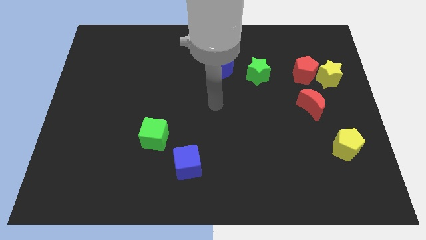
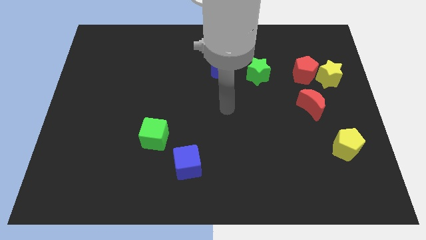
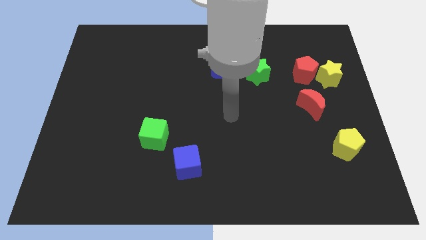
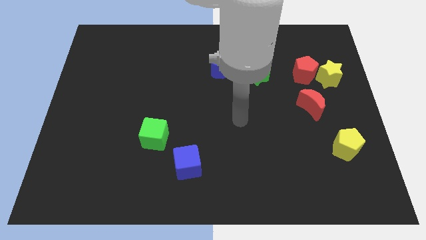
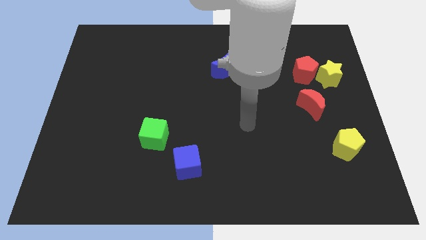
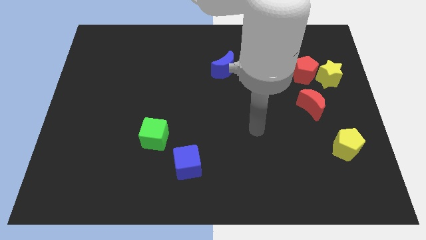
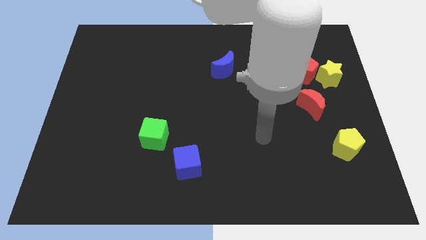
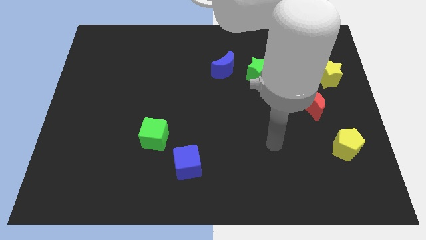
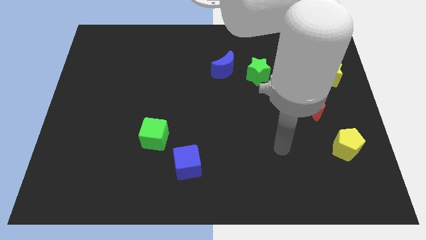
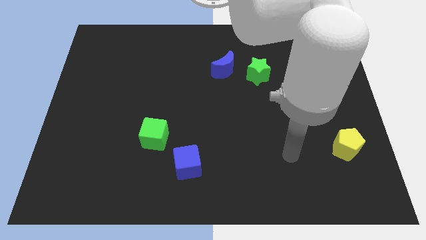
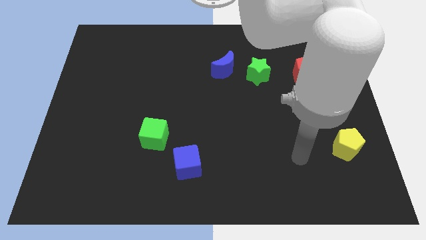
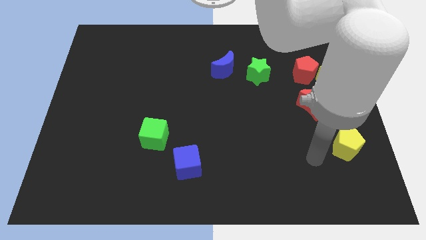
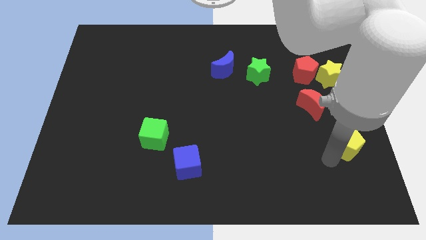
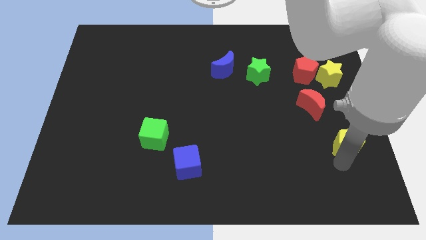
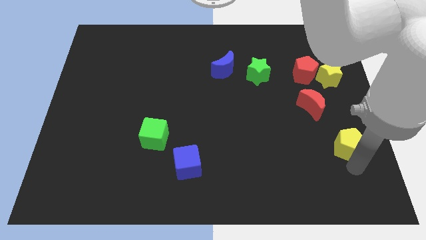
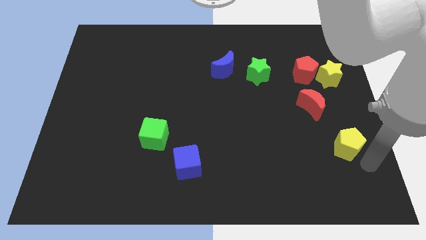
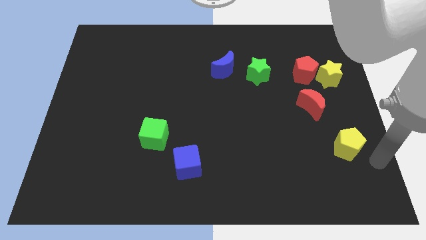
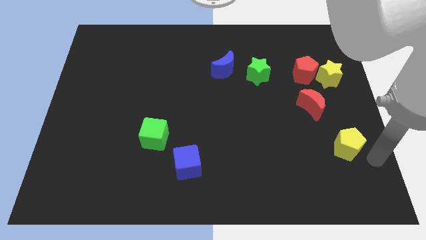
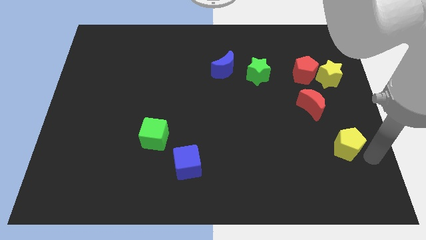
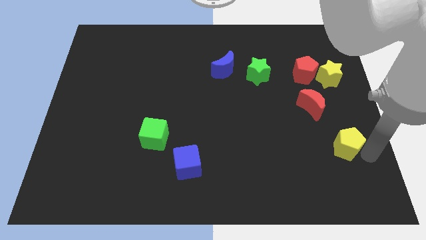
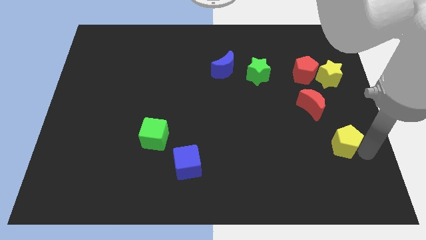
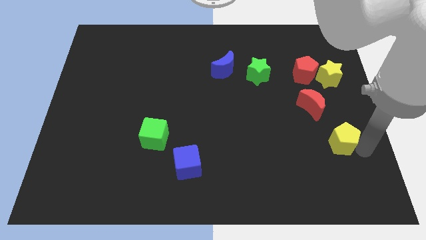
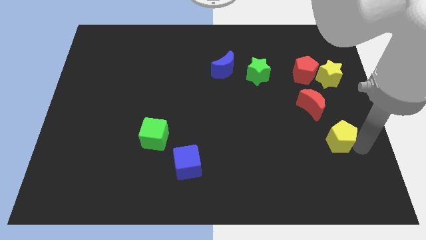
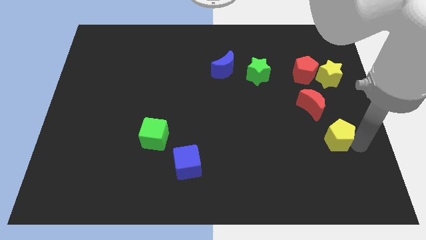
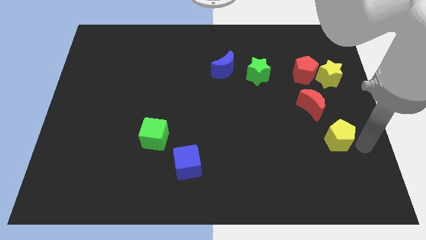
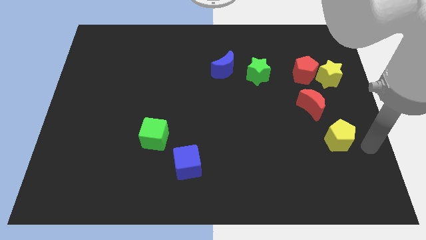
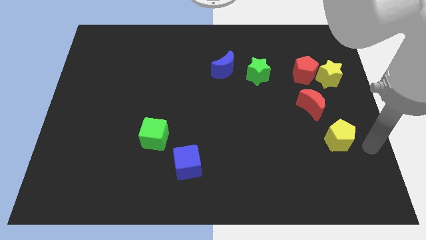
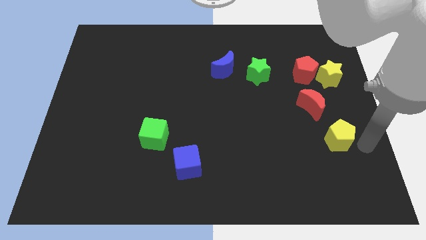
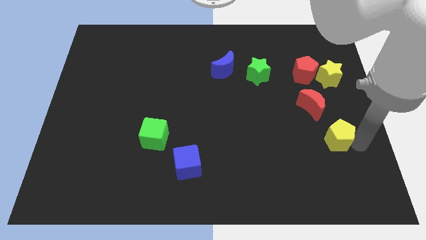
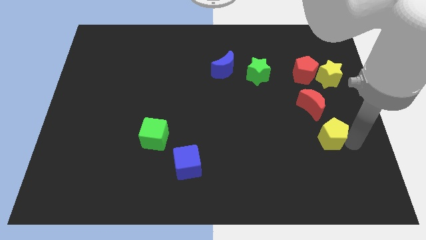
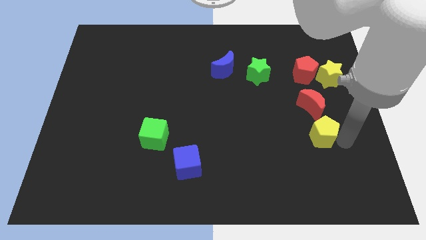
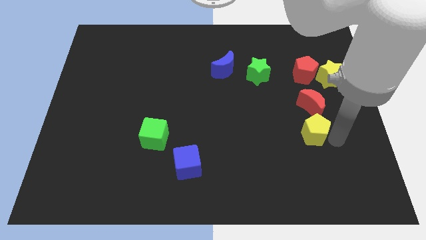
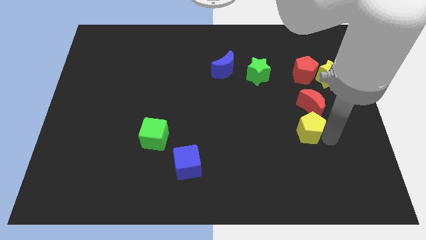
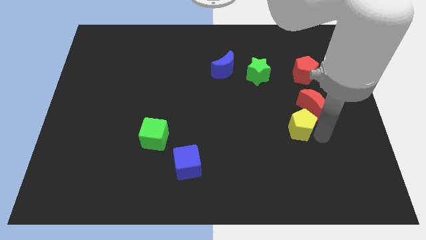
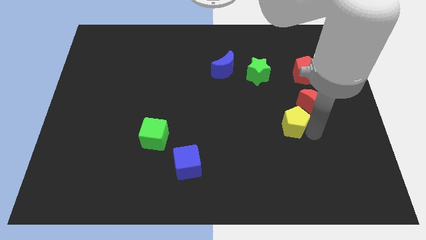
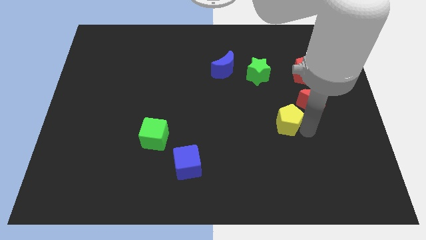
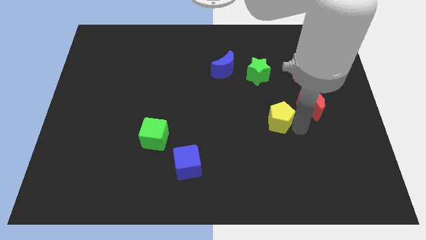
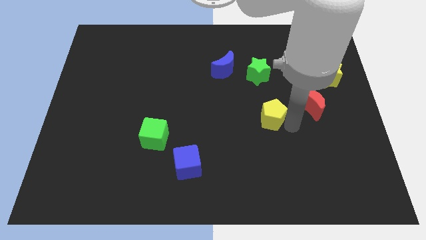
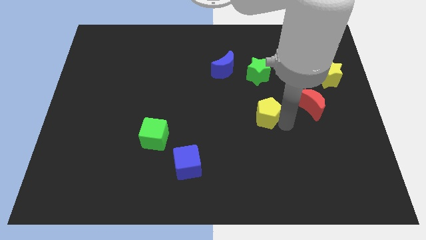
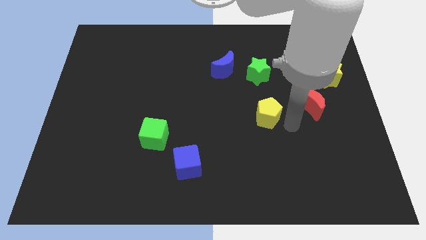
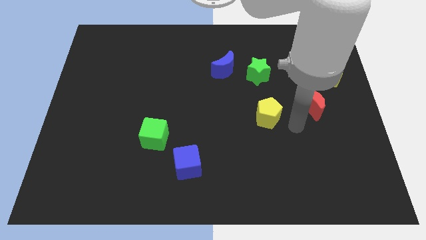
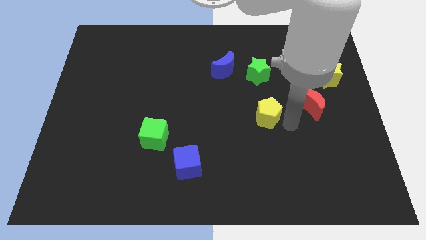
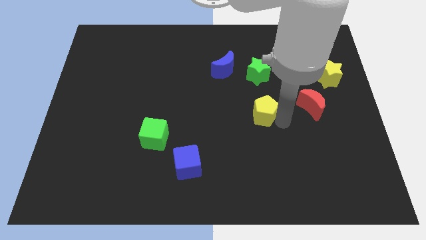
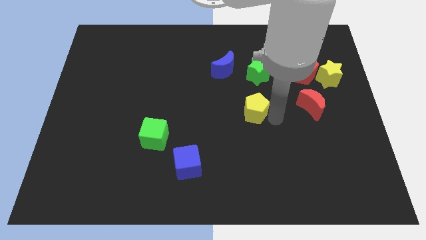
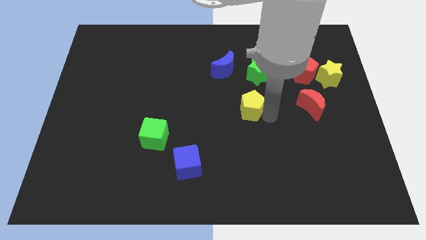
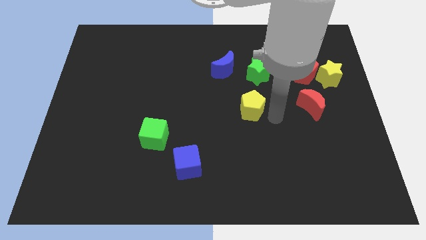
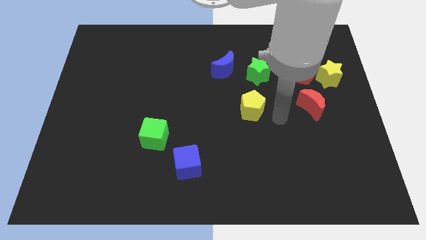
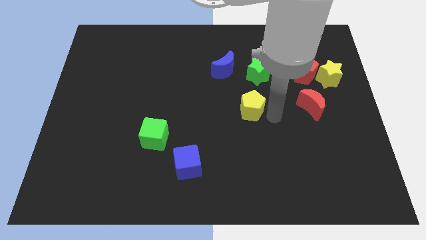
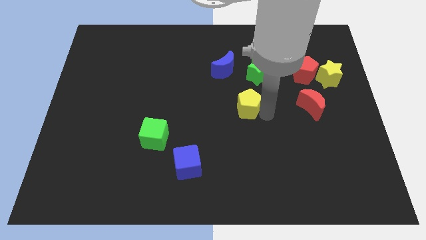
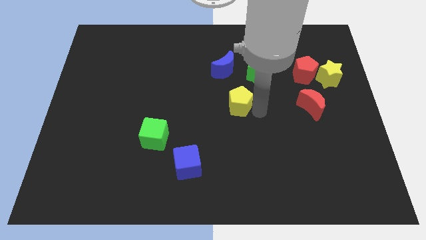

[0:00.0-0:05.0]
slide the yellow pentagon to the bottom of the blue moon

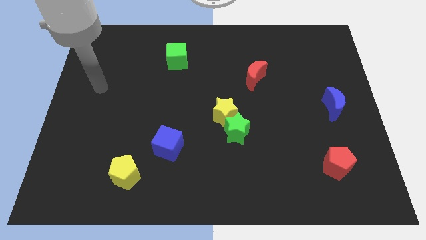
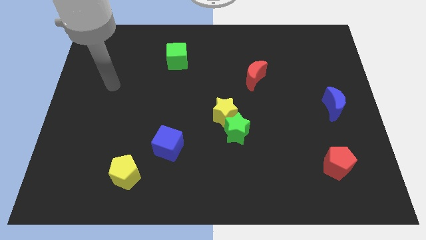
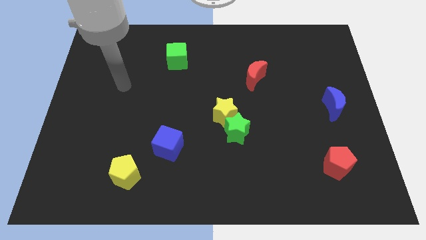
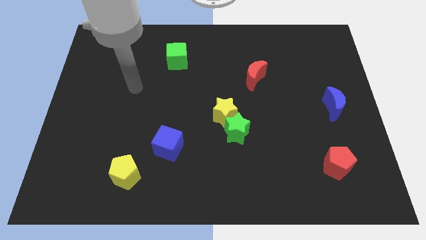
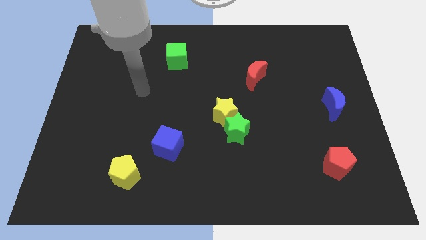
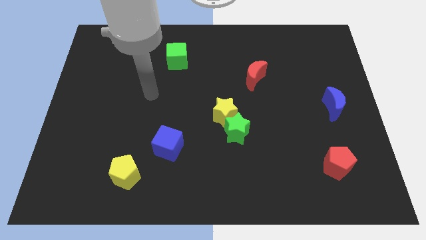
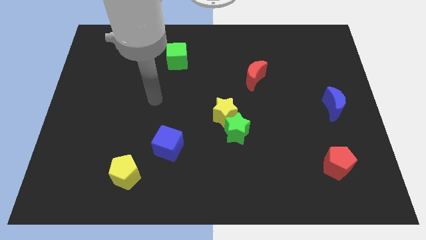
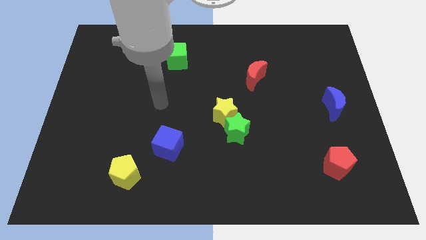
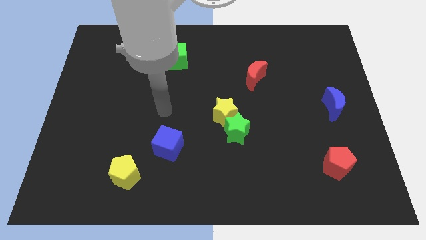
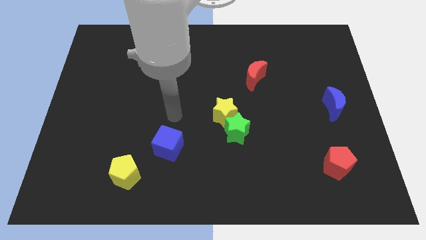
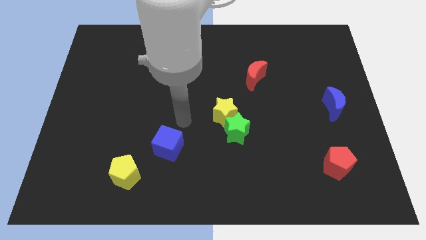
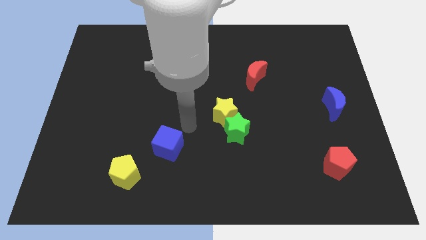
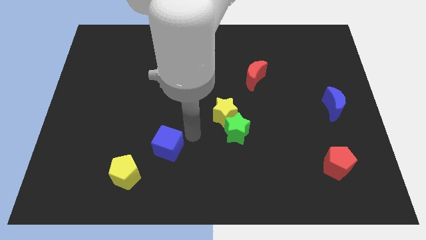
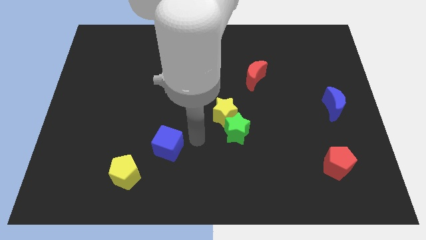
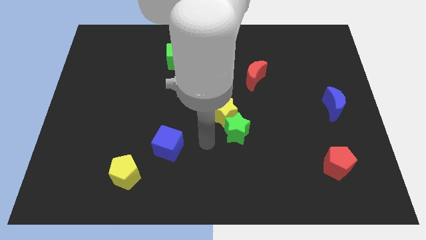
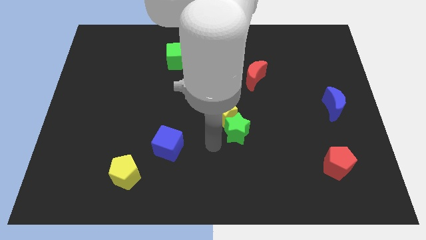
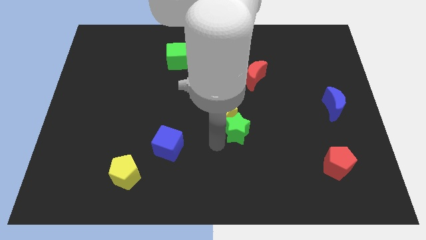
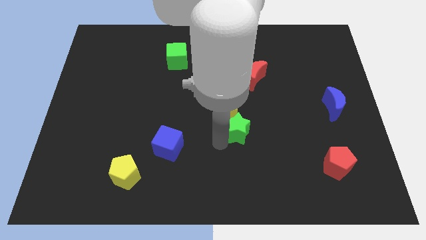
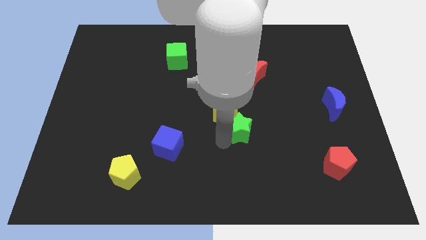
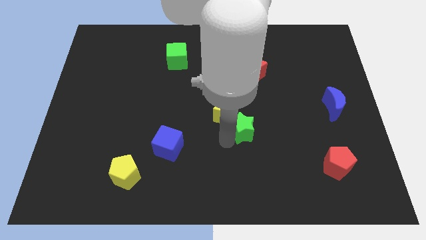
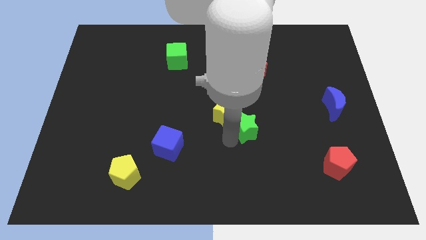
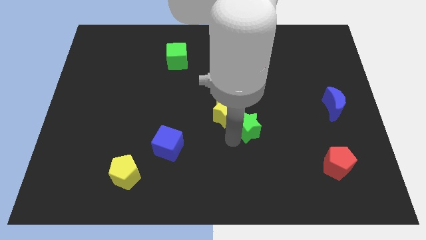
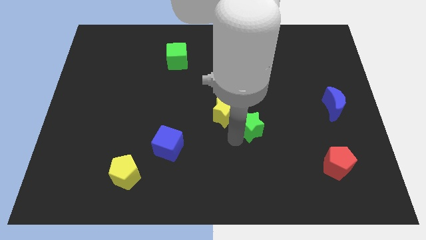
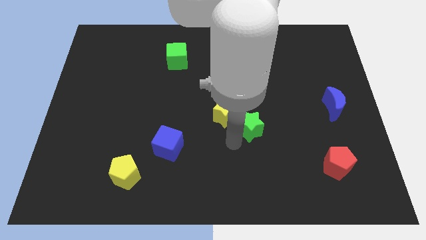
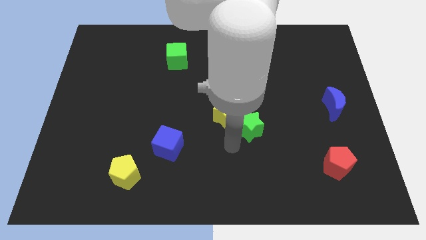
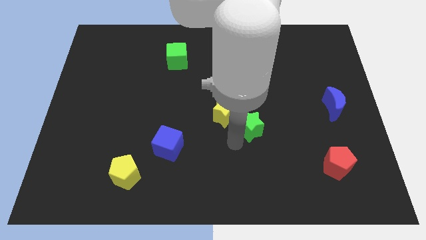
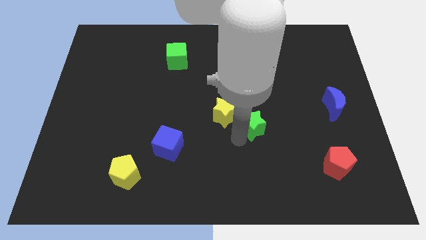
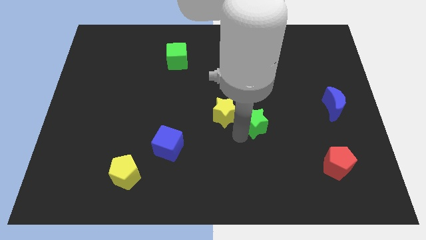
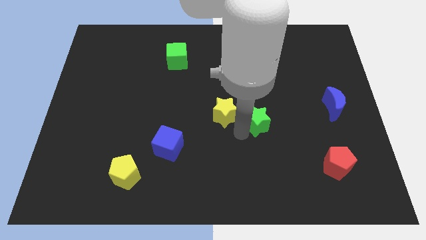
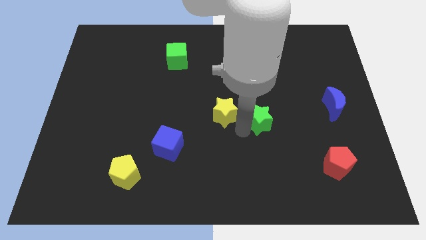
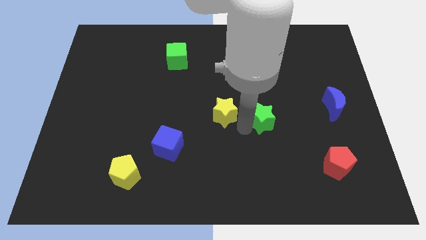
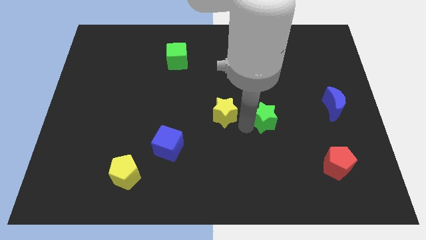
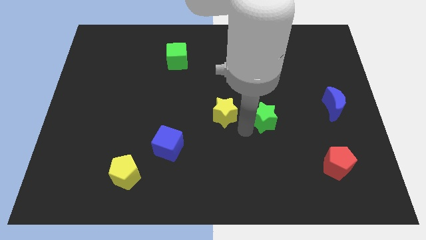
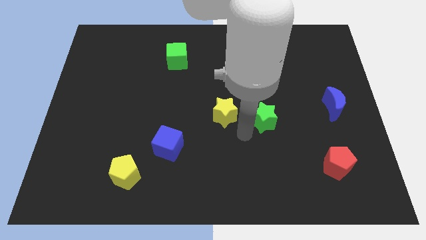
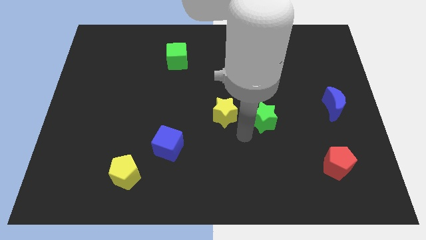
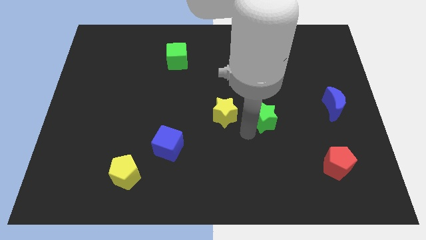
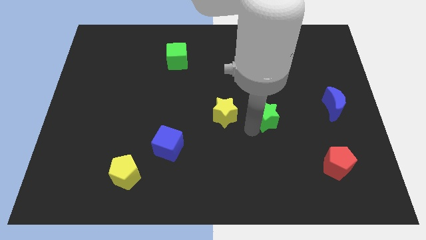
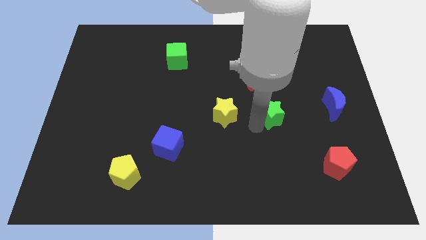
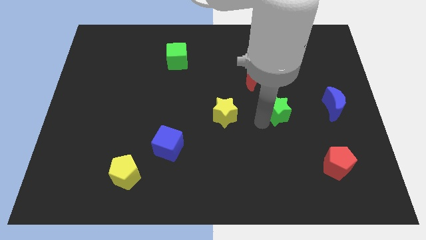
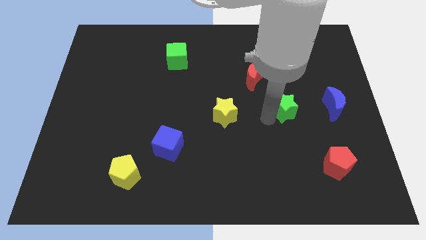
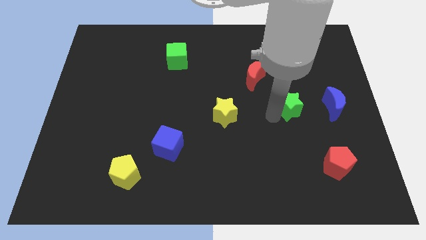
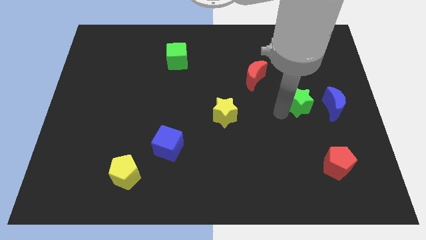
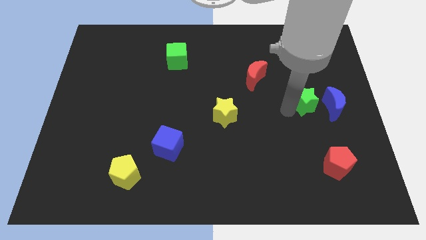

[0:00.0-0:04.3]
slide the green star to the top left side of the blue moon
